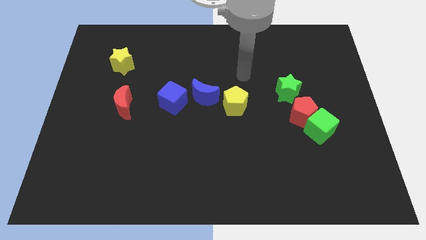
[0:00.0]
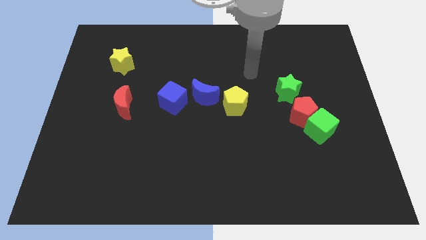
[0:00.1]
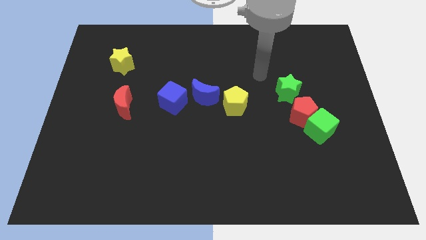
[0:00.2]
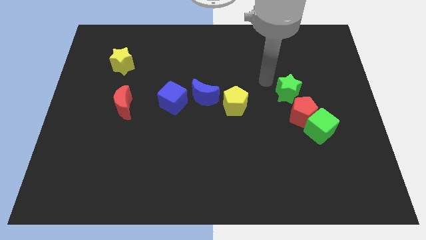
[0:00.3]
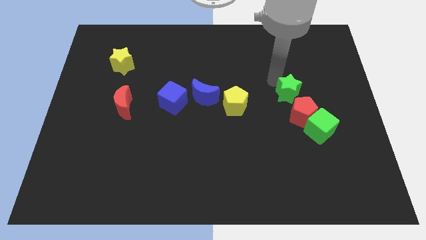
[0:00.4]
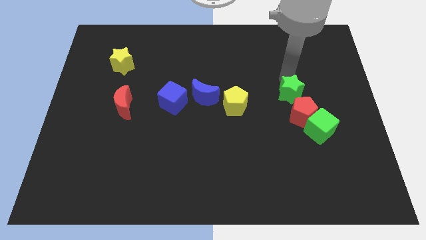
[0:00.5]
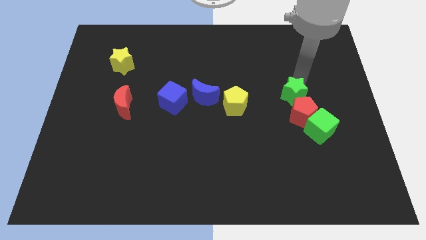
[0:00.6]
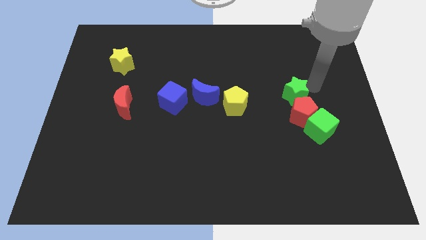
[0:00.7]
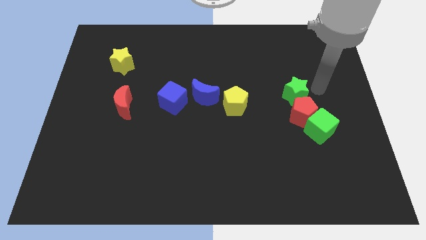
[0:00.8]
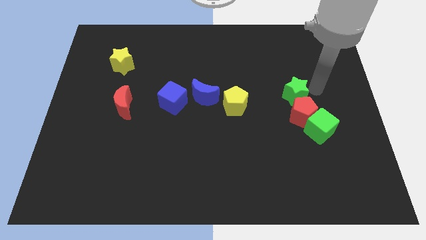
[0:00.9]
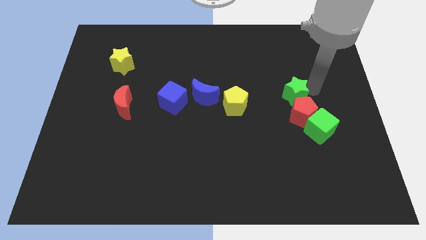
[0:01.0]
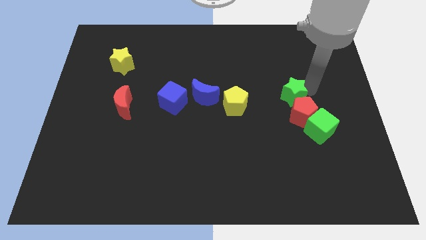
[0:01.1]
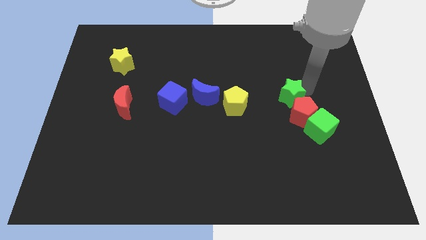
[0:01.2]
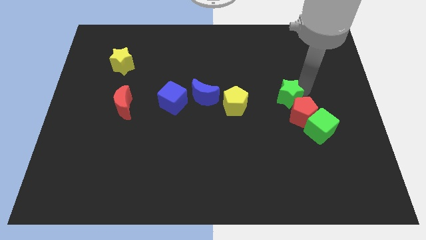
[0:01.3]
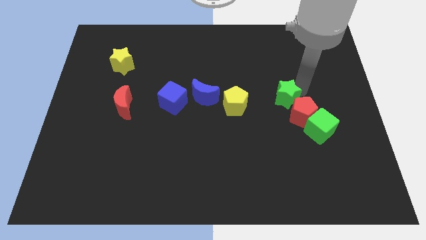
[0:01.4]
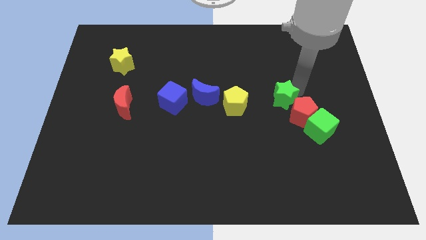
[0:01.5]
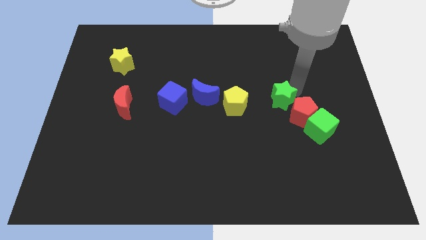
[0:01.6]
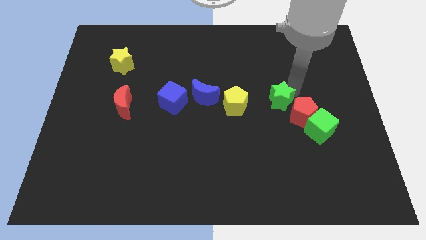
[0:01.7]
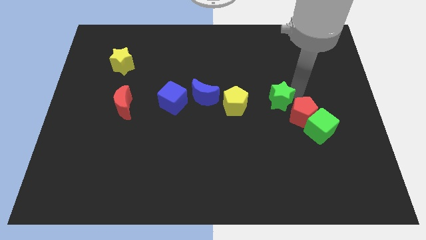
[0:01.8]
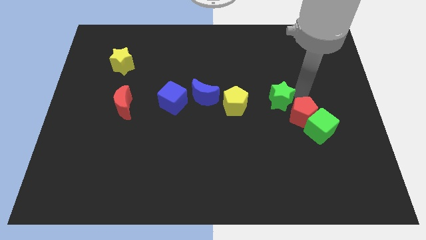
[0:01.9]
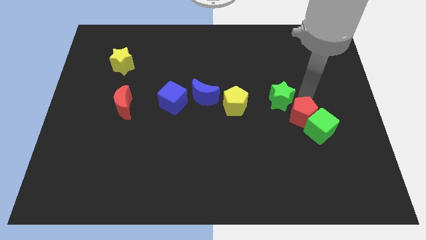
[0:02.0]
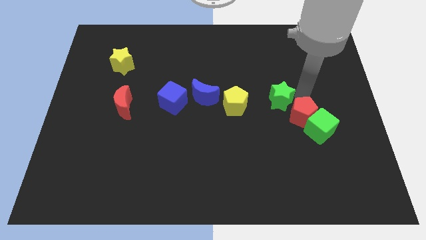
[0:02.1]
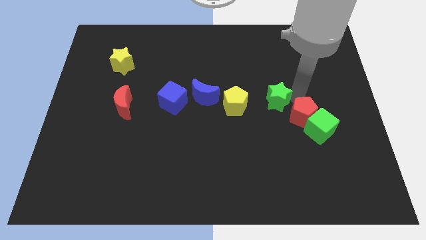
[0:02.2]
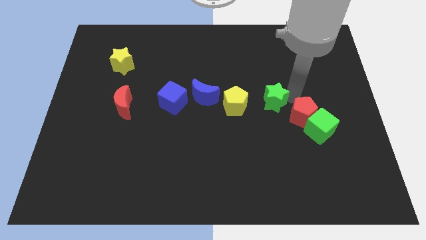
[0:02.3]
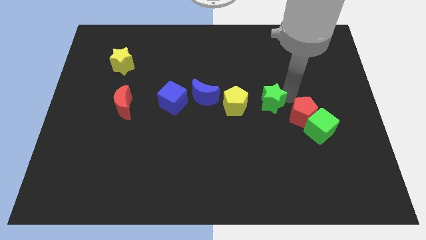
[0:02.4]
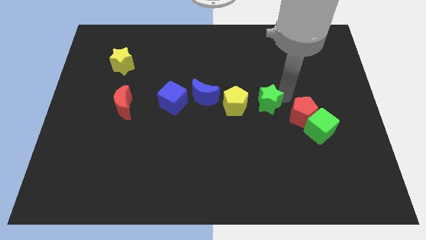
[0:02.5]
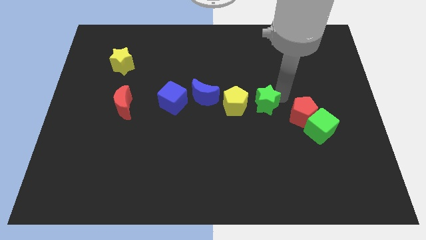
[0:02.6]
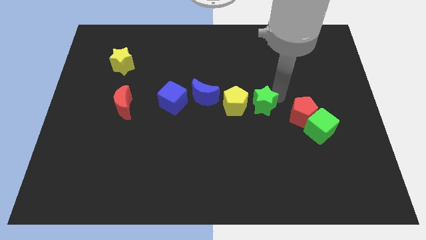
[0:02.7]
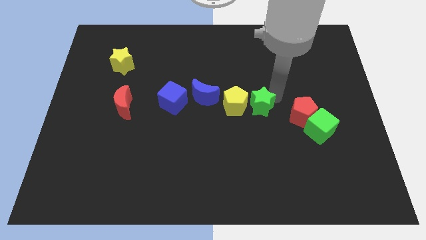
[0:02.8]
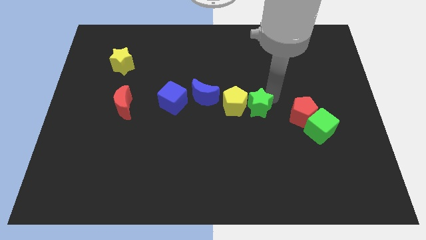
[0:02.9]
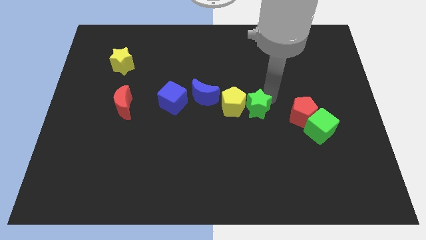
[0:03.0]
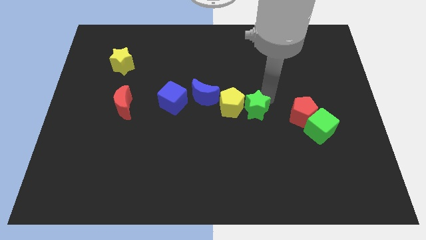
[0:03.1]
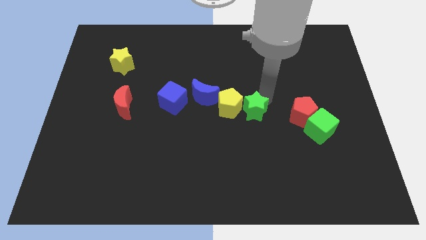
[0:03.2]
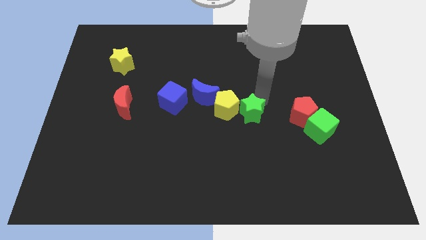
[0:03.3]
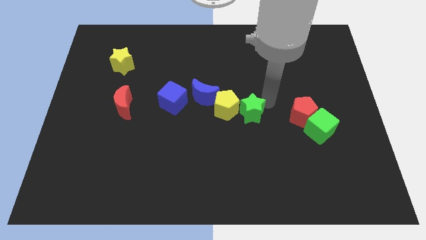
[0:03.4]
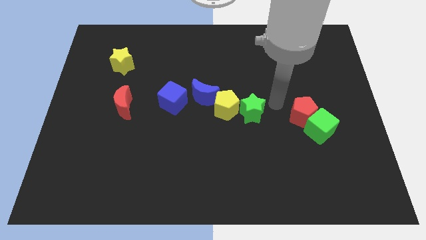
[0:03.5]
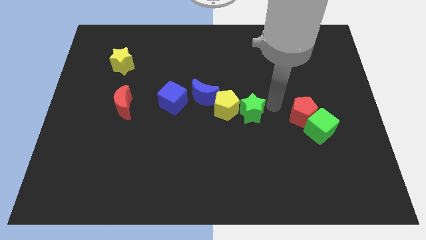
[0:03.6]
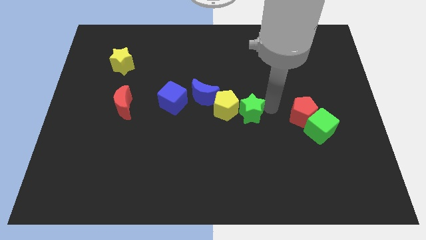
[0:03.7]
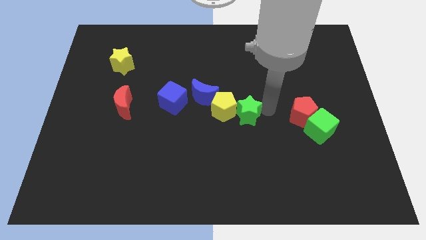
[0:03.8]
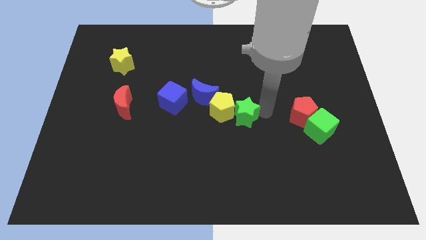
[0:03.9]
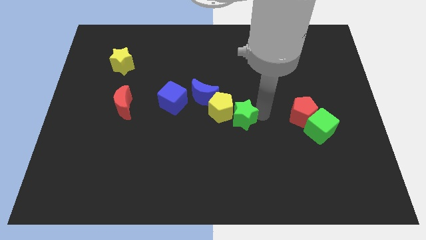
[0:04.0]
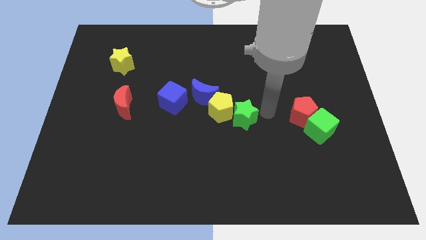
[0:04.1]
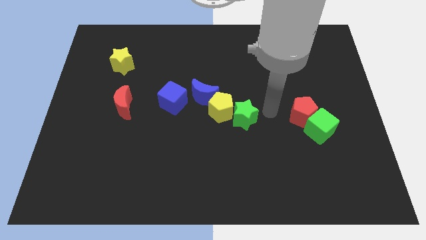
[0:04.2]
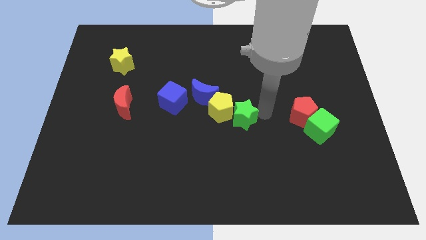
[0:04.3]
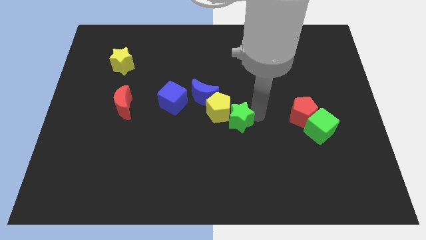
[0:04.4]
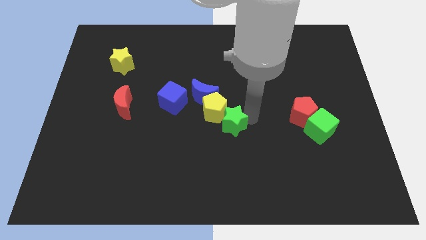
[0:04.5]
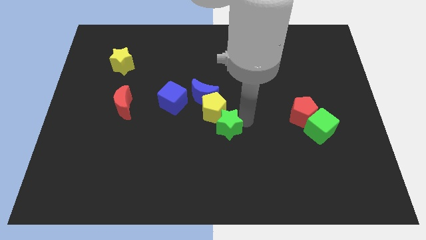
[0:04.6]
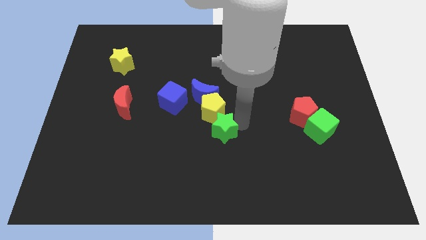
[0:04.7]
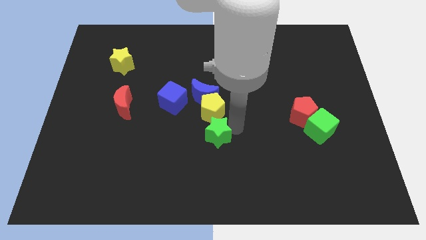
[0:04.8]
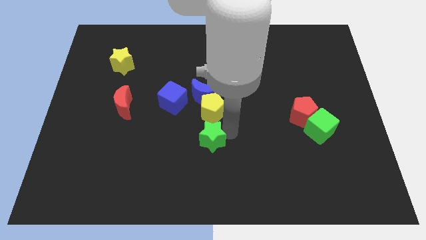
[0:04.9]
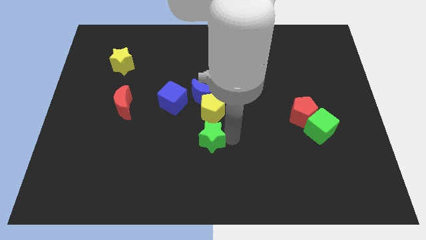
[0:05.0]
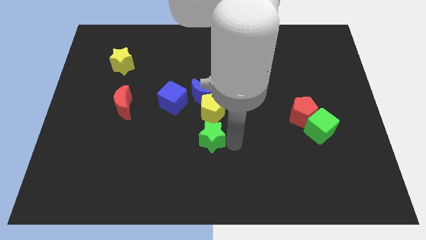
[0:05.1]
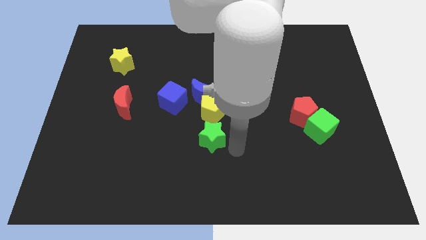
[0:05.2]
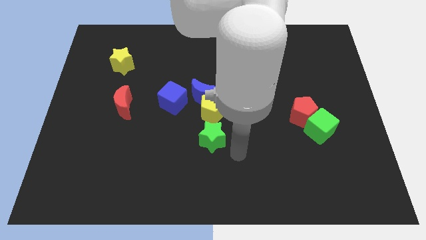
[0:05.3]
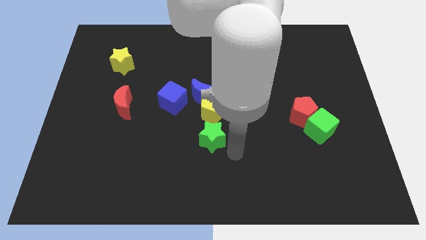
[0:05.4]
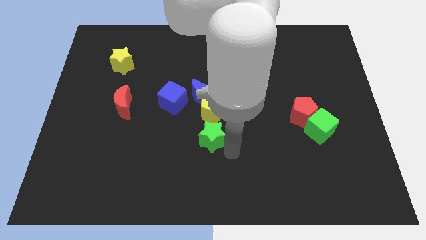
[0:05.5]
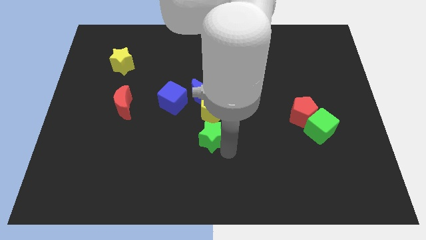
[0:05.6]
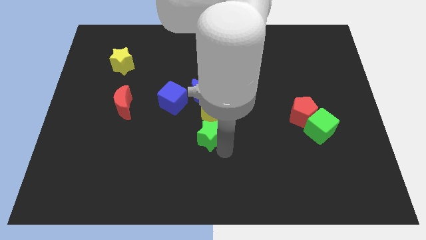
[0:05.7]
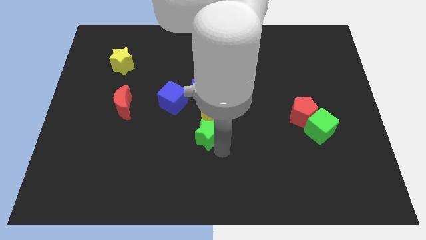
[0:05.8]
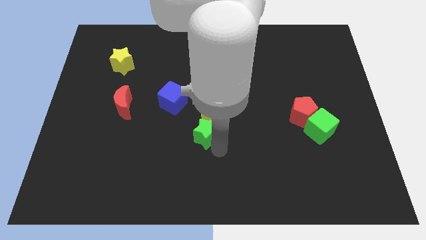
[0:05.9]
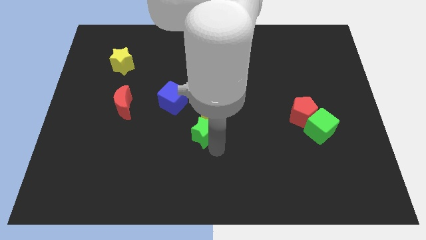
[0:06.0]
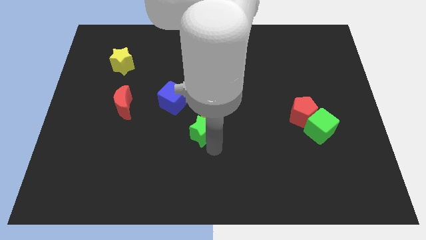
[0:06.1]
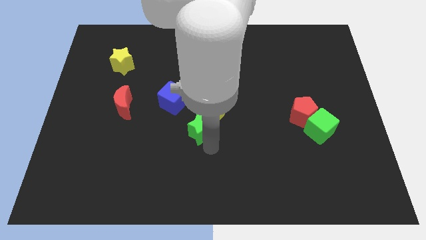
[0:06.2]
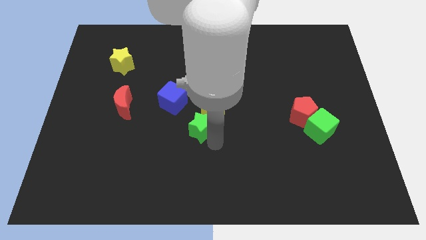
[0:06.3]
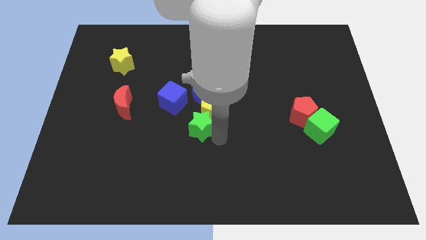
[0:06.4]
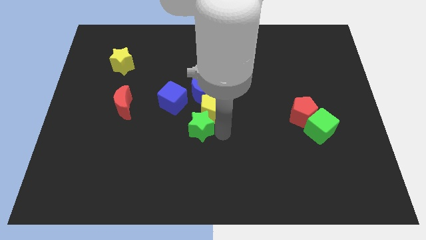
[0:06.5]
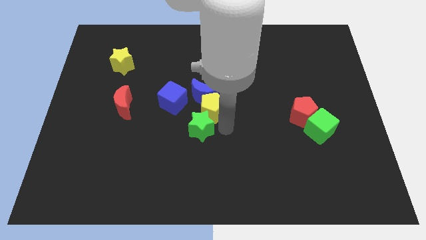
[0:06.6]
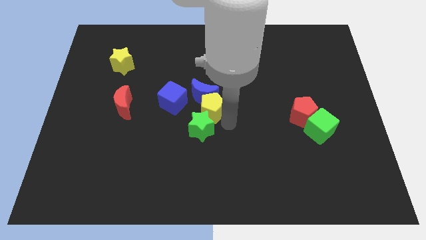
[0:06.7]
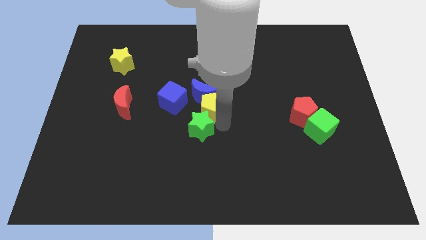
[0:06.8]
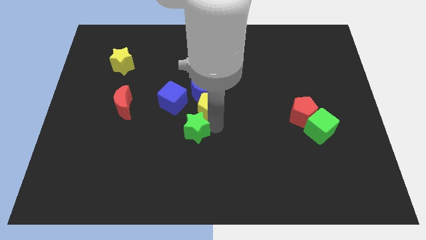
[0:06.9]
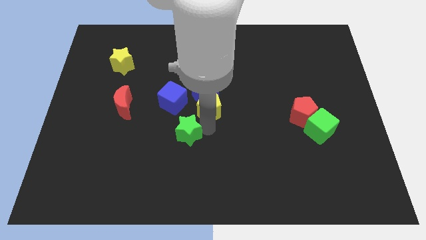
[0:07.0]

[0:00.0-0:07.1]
push the green star to the bottom side of the blue cube
